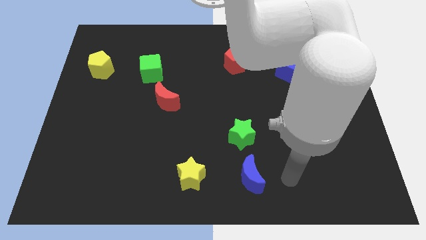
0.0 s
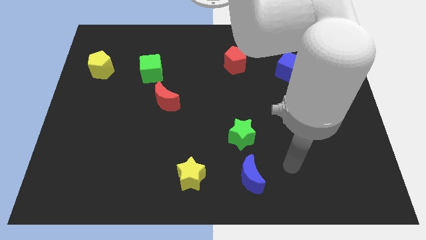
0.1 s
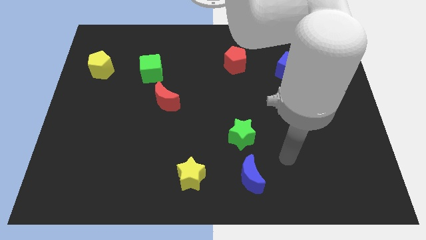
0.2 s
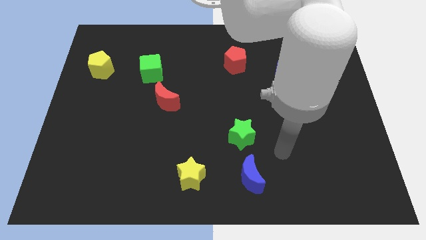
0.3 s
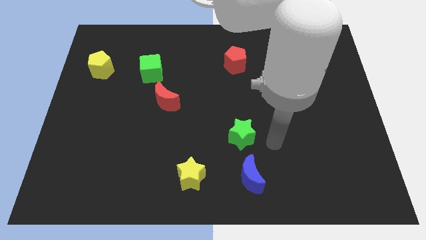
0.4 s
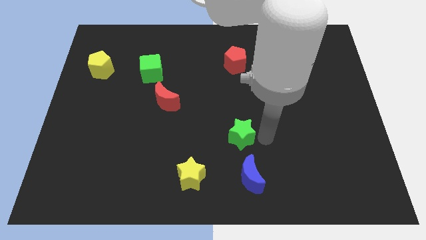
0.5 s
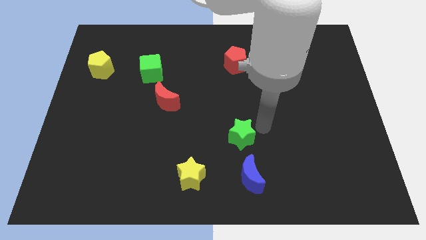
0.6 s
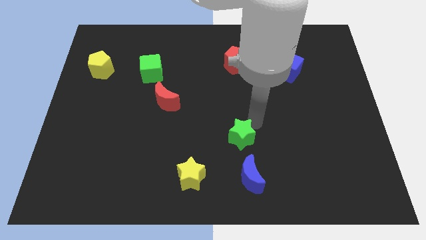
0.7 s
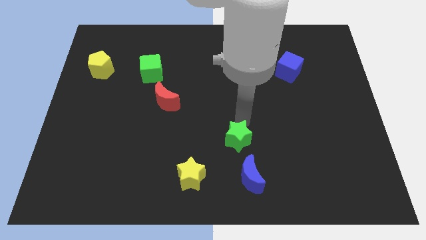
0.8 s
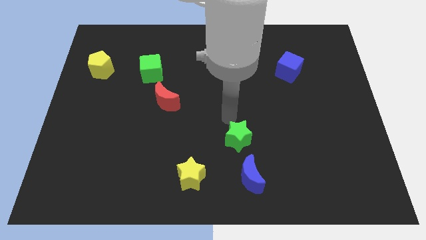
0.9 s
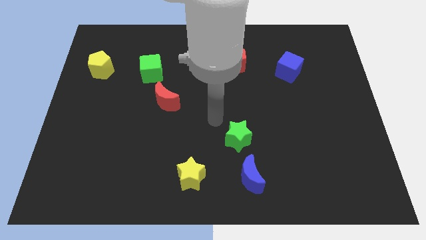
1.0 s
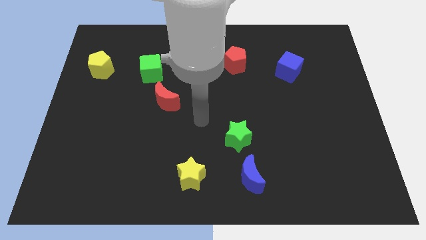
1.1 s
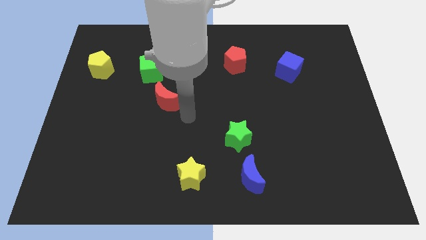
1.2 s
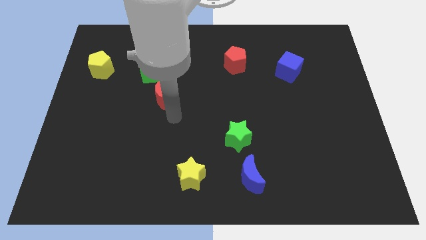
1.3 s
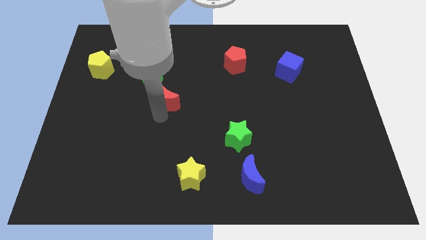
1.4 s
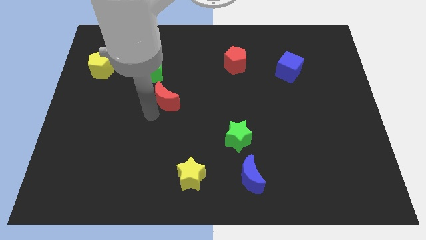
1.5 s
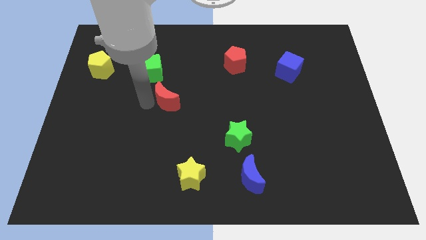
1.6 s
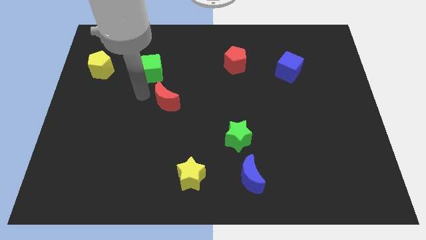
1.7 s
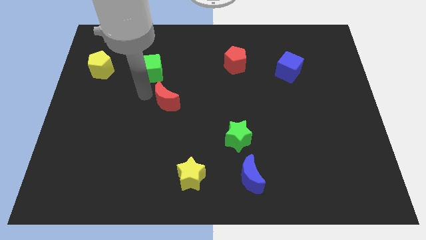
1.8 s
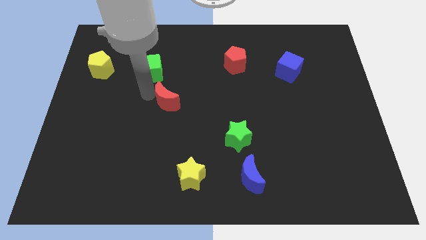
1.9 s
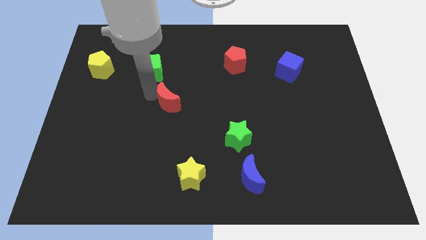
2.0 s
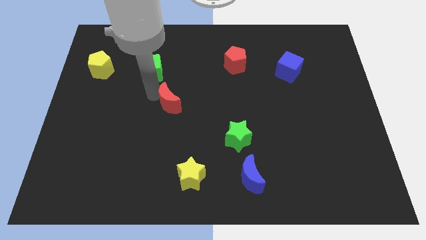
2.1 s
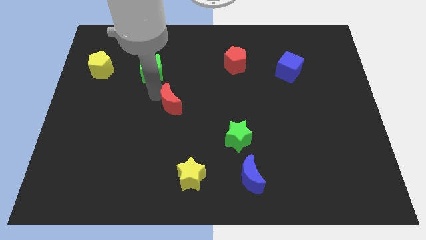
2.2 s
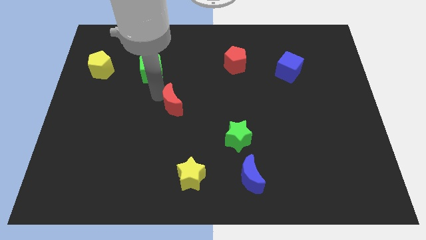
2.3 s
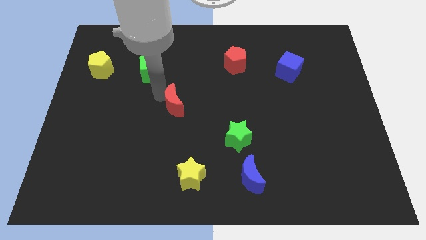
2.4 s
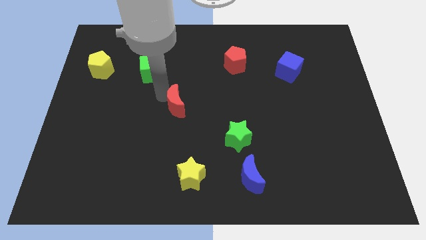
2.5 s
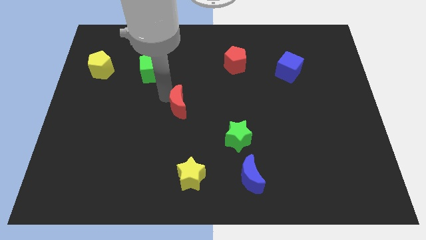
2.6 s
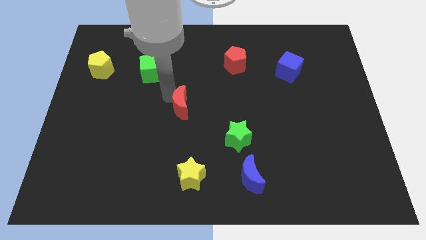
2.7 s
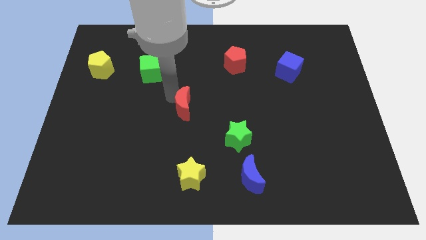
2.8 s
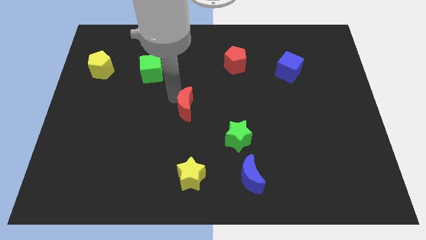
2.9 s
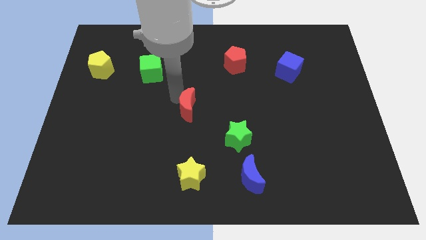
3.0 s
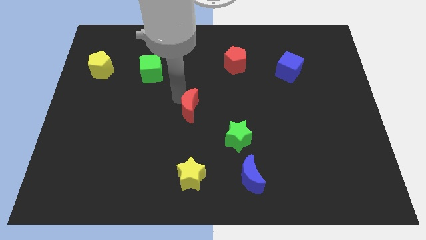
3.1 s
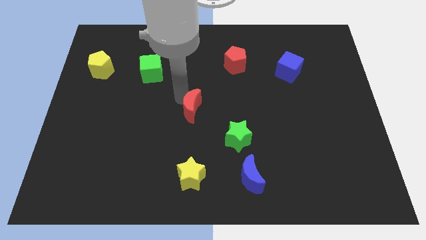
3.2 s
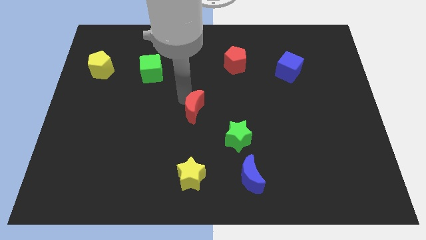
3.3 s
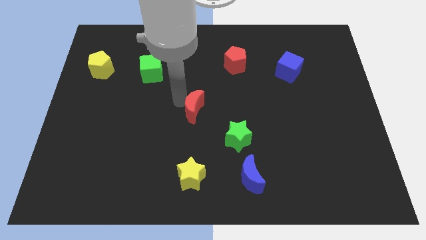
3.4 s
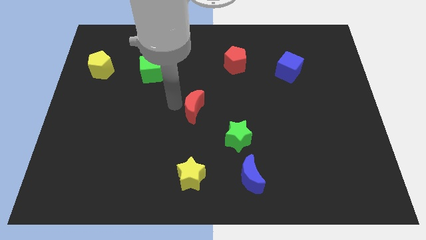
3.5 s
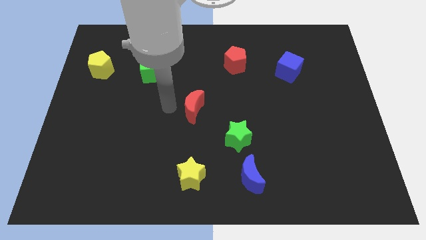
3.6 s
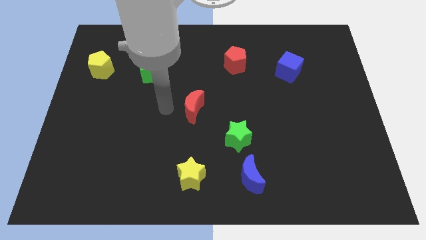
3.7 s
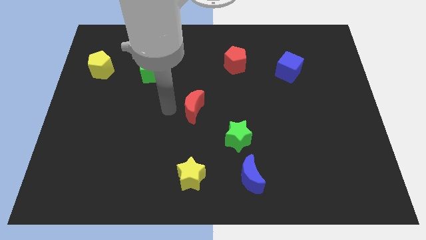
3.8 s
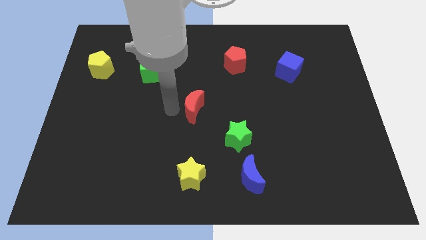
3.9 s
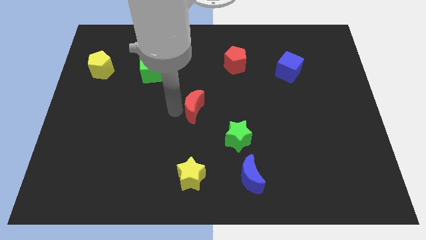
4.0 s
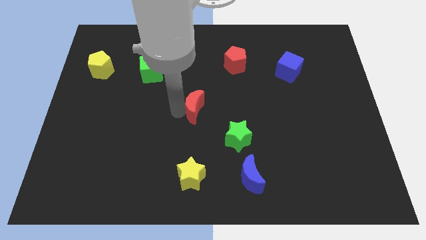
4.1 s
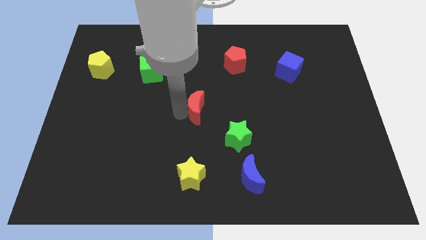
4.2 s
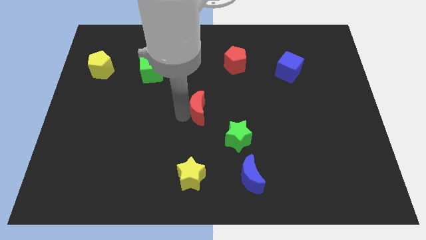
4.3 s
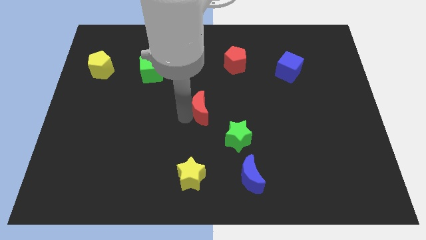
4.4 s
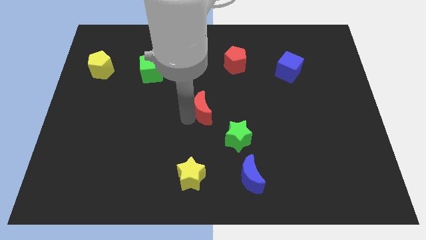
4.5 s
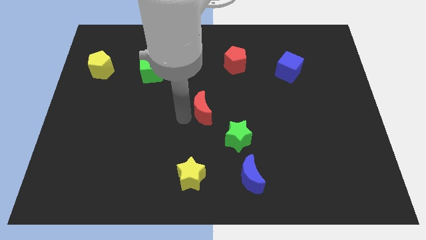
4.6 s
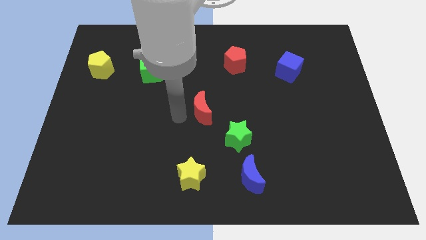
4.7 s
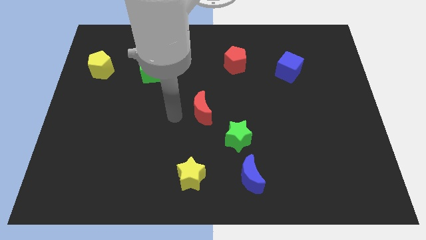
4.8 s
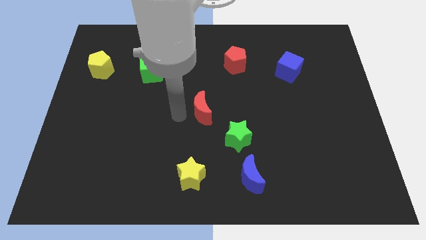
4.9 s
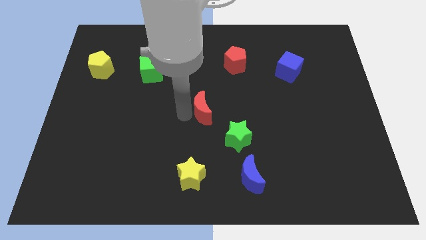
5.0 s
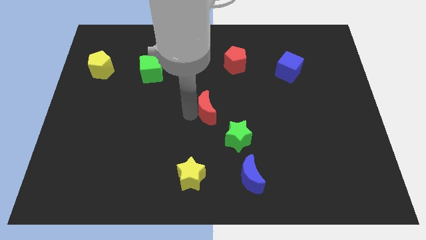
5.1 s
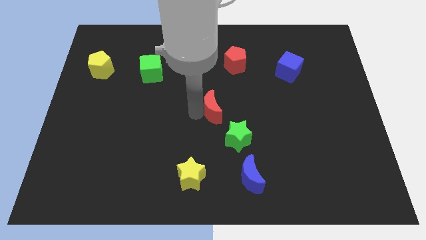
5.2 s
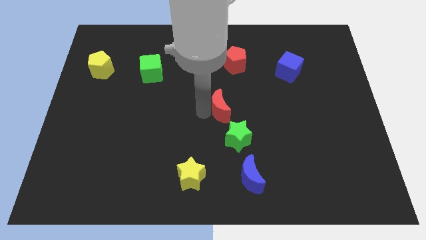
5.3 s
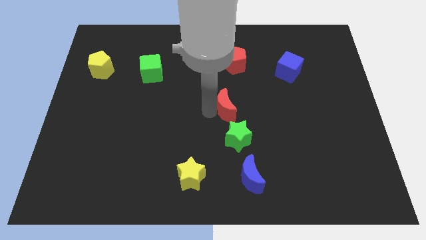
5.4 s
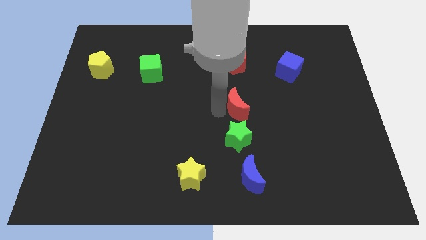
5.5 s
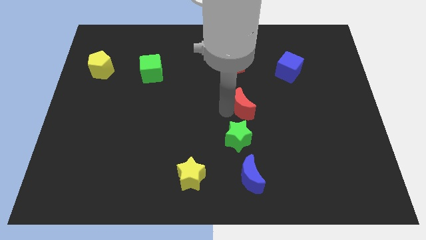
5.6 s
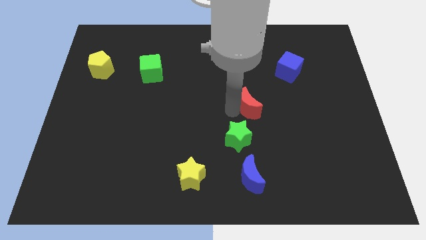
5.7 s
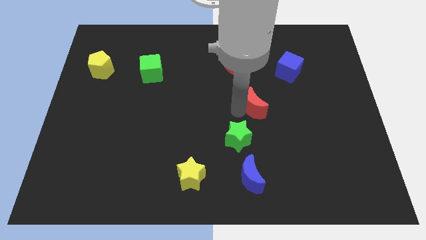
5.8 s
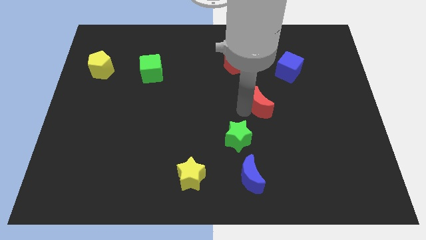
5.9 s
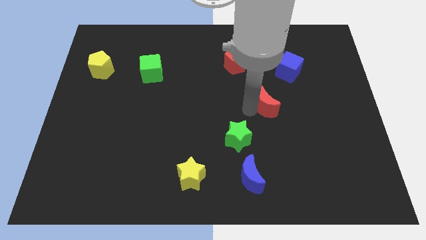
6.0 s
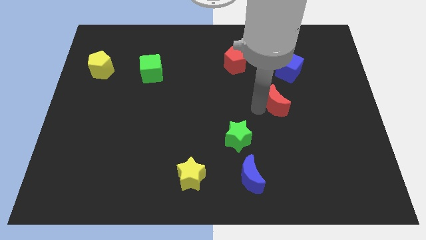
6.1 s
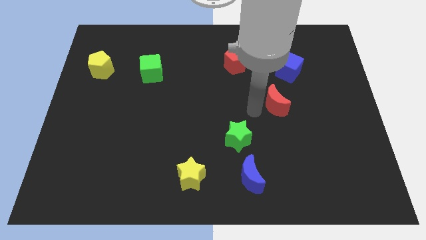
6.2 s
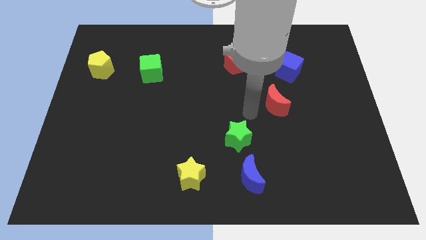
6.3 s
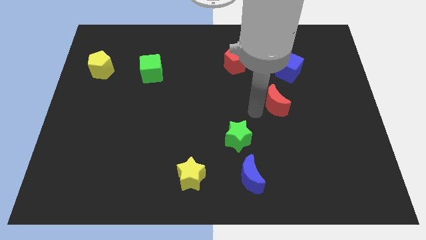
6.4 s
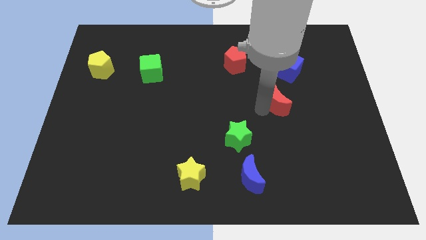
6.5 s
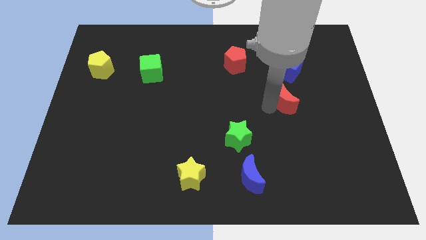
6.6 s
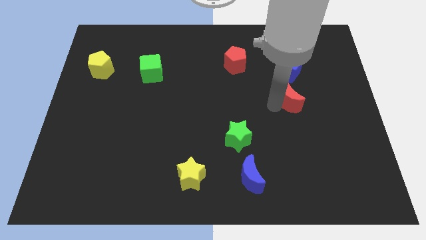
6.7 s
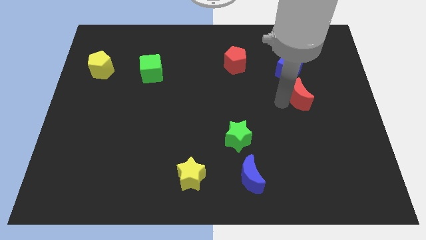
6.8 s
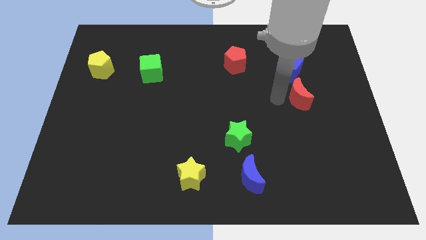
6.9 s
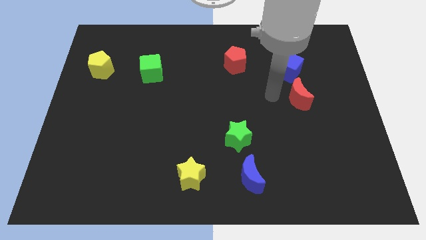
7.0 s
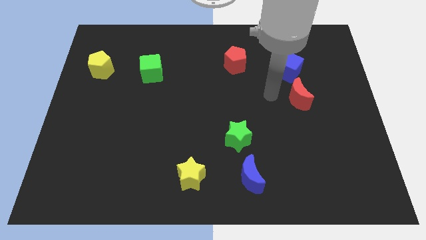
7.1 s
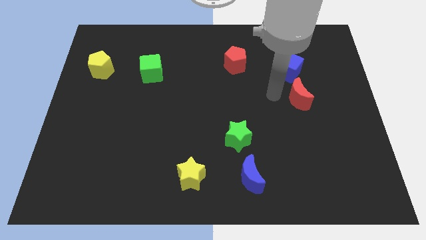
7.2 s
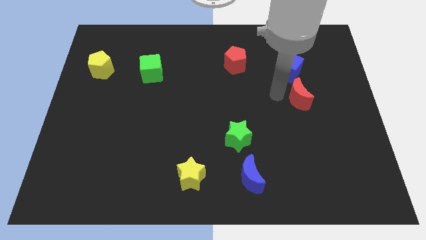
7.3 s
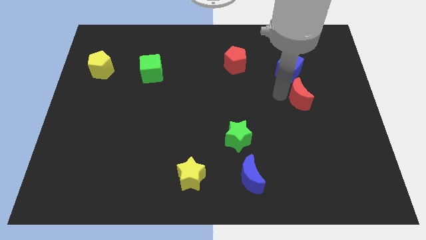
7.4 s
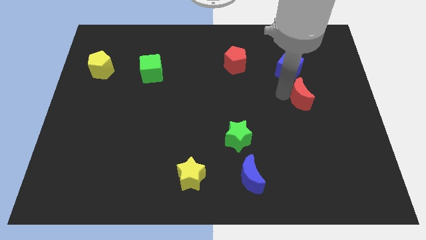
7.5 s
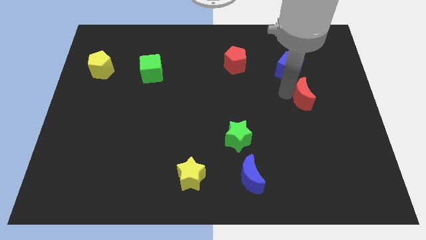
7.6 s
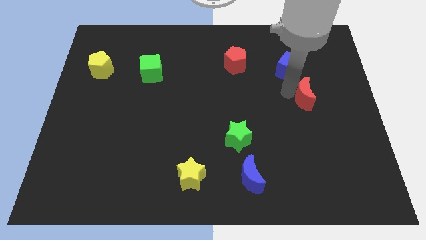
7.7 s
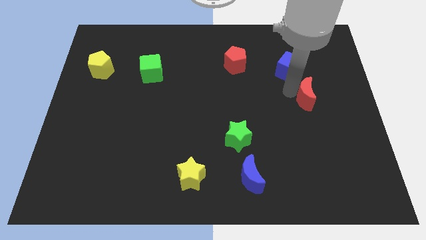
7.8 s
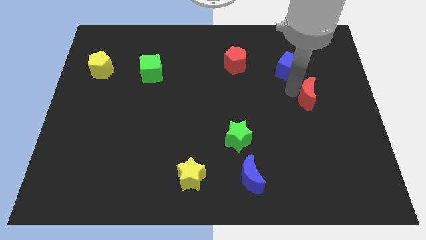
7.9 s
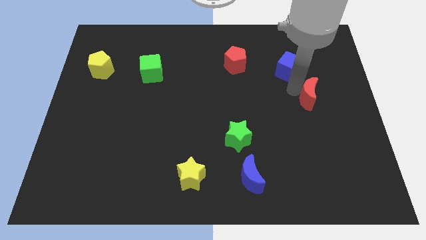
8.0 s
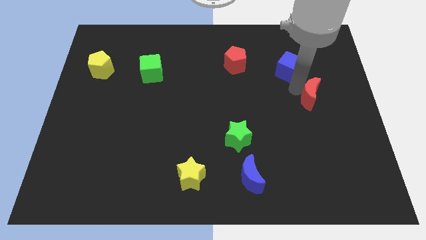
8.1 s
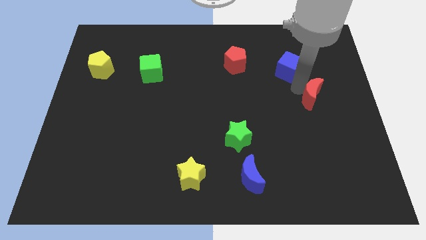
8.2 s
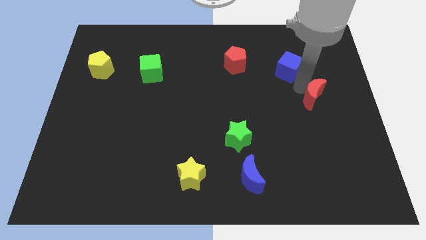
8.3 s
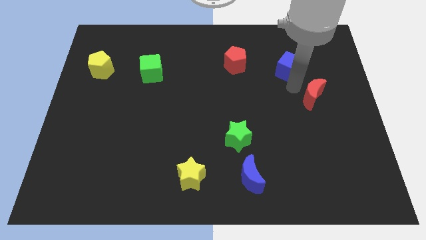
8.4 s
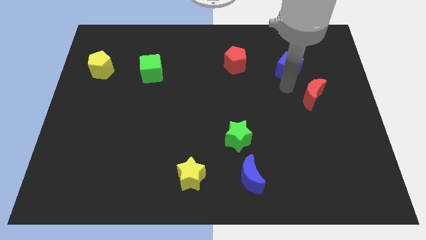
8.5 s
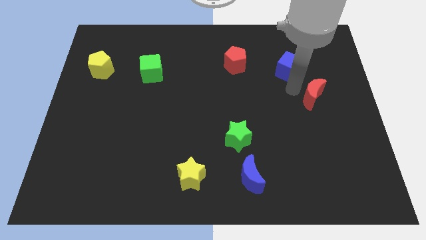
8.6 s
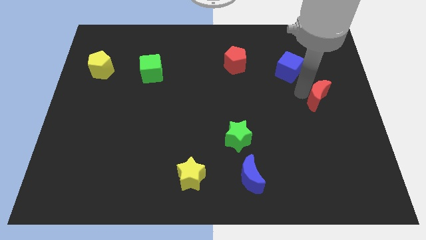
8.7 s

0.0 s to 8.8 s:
move the red moon to the right side of the board
